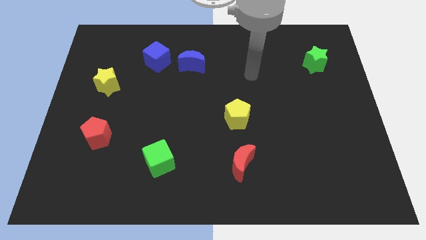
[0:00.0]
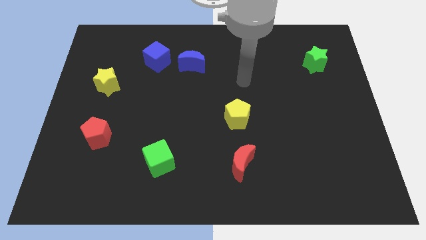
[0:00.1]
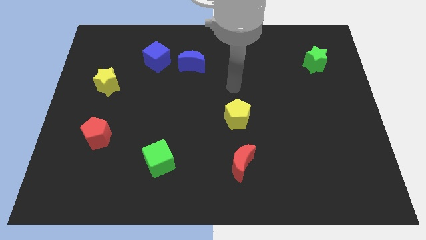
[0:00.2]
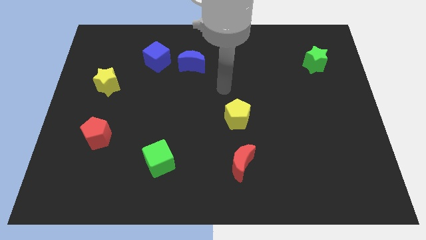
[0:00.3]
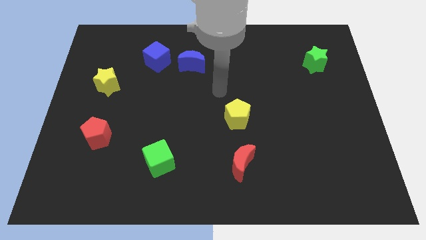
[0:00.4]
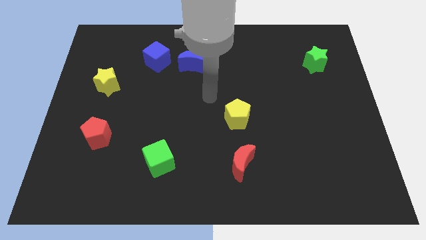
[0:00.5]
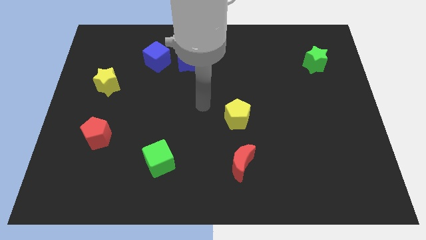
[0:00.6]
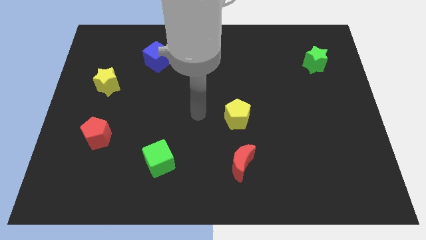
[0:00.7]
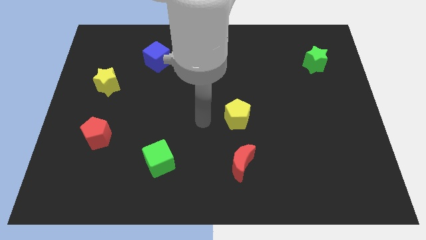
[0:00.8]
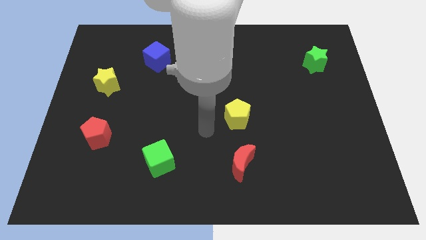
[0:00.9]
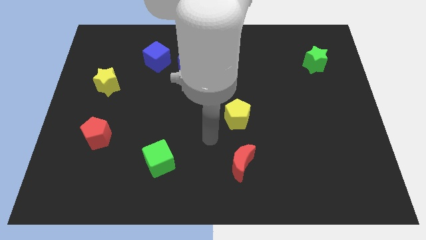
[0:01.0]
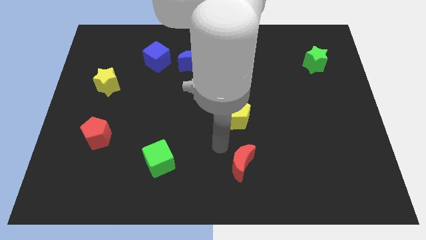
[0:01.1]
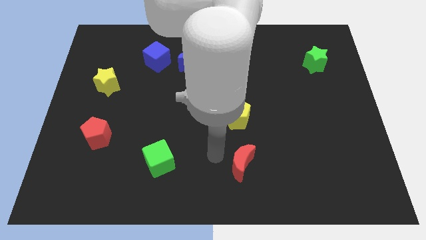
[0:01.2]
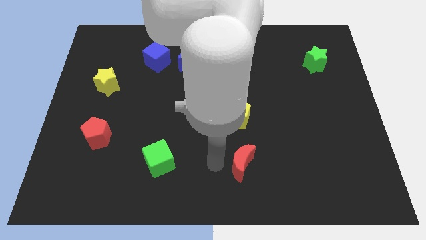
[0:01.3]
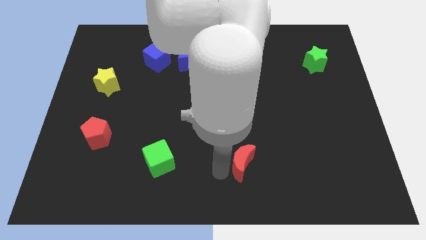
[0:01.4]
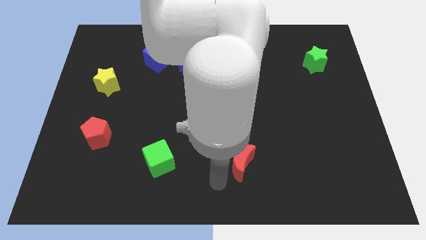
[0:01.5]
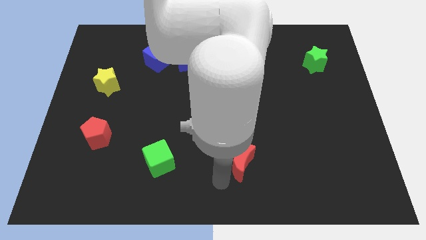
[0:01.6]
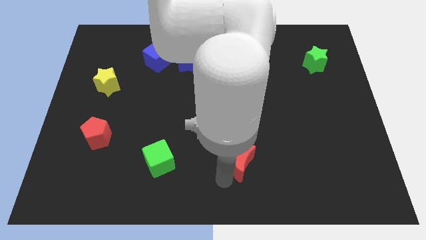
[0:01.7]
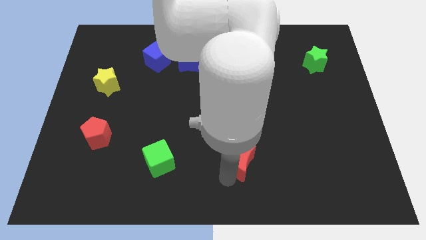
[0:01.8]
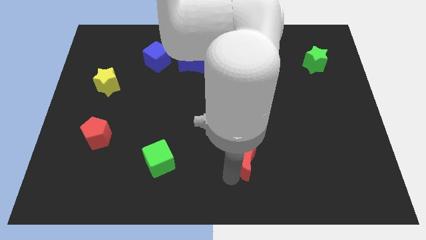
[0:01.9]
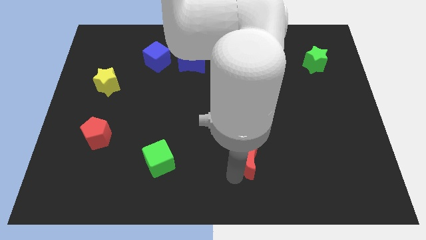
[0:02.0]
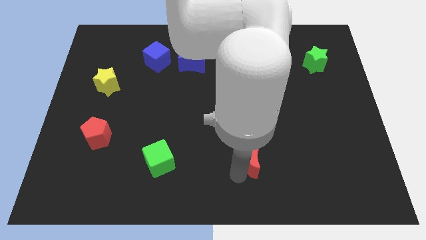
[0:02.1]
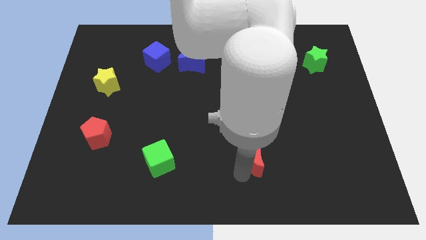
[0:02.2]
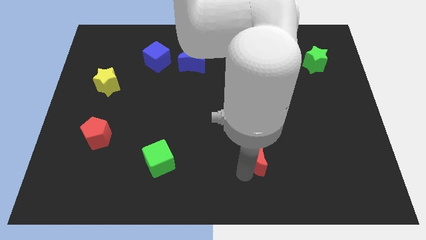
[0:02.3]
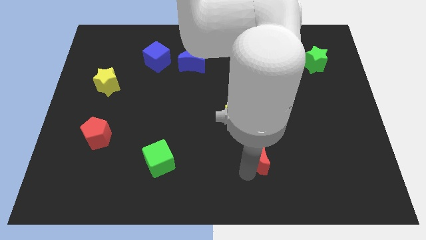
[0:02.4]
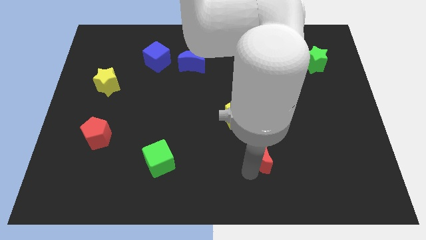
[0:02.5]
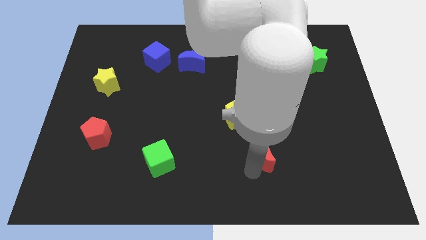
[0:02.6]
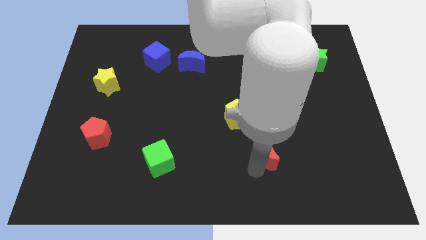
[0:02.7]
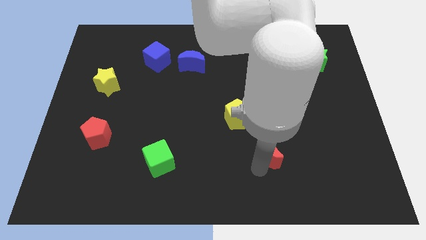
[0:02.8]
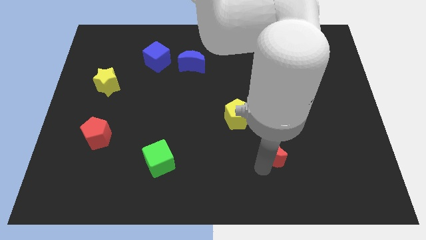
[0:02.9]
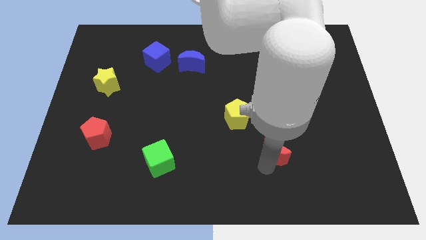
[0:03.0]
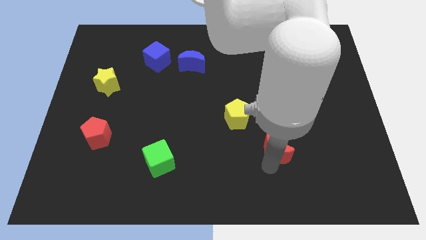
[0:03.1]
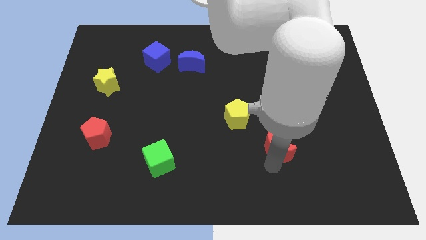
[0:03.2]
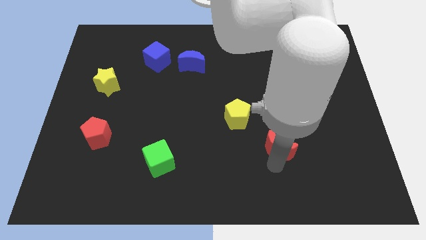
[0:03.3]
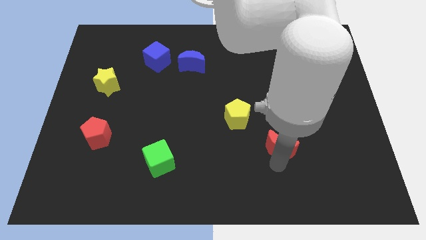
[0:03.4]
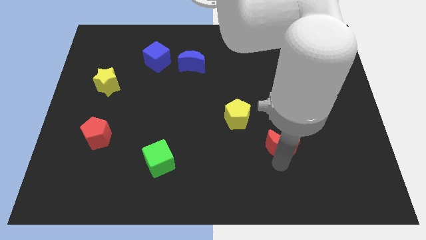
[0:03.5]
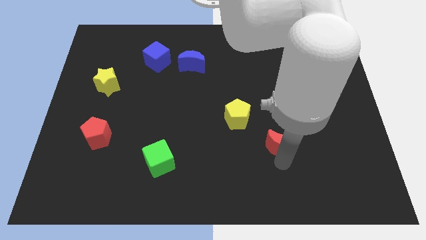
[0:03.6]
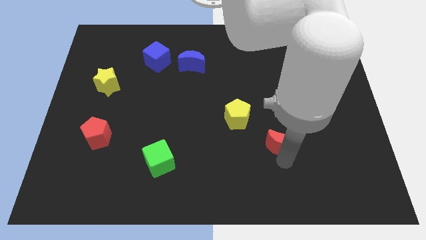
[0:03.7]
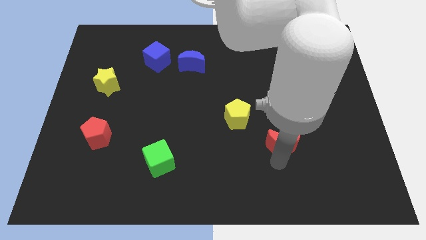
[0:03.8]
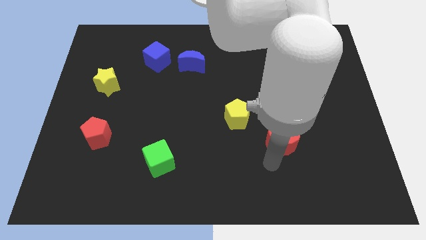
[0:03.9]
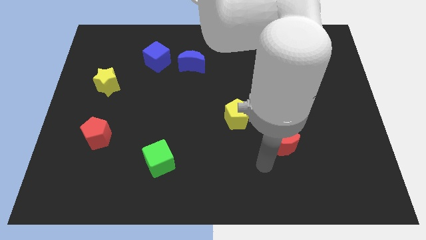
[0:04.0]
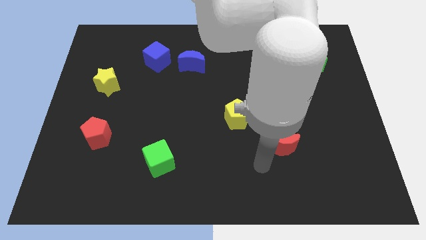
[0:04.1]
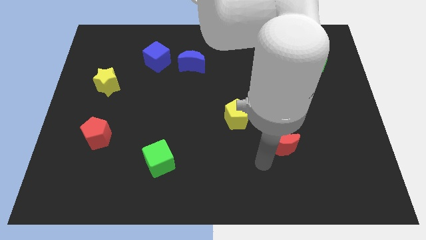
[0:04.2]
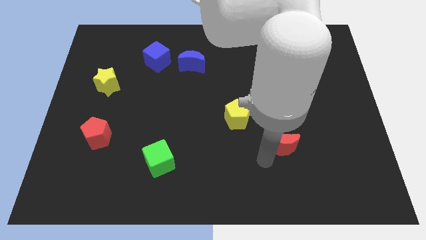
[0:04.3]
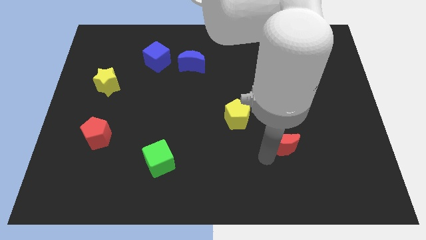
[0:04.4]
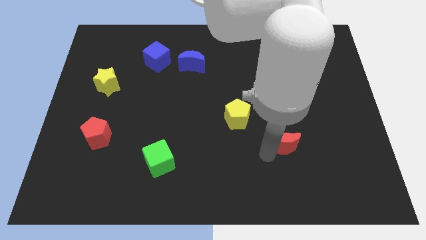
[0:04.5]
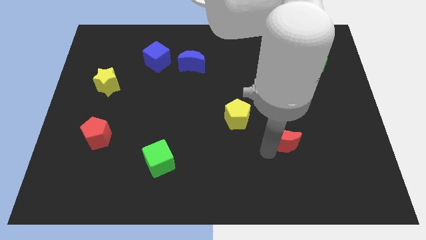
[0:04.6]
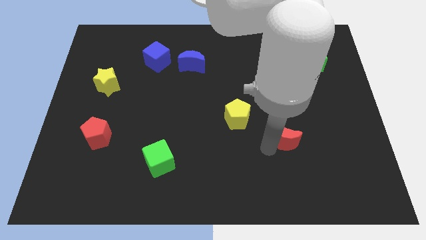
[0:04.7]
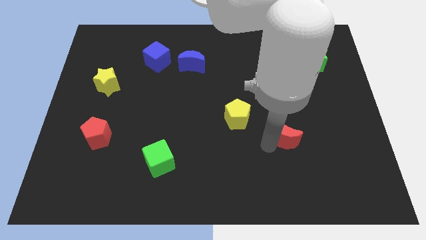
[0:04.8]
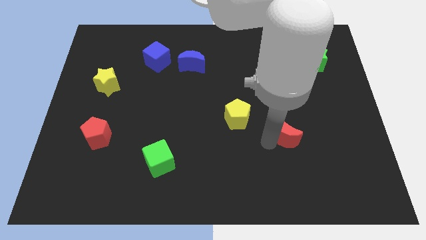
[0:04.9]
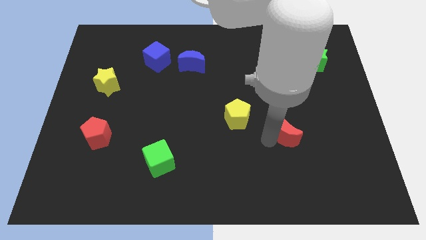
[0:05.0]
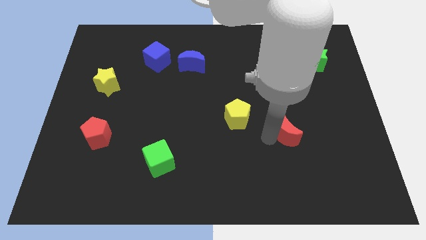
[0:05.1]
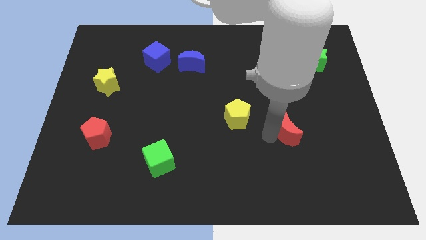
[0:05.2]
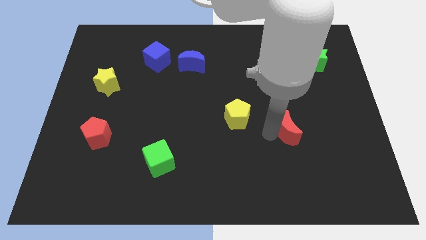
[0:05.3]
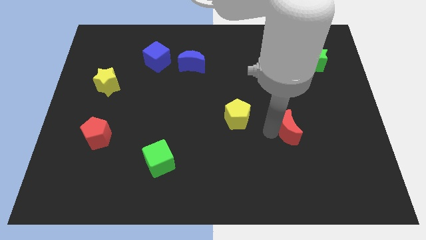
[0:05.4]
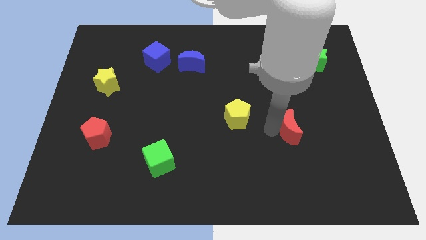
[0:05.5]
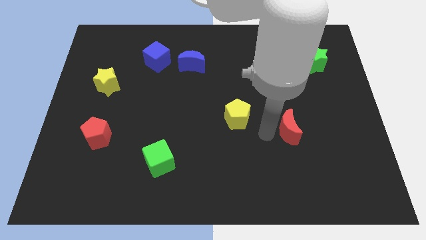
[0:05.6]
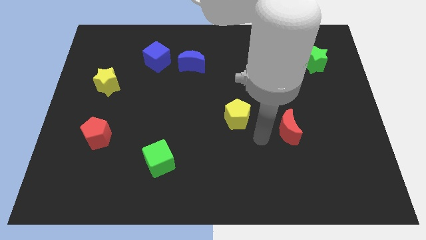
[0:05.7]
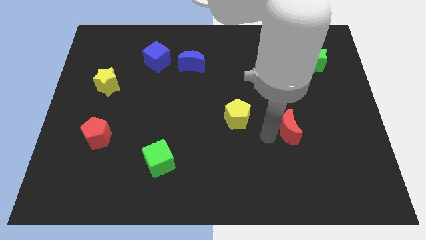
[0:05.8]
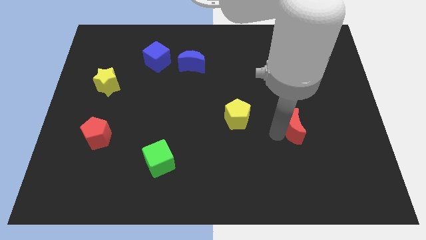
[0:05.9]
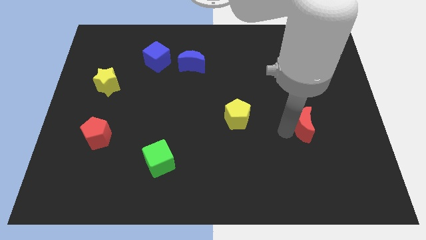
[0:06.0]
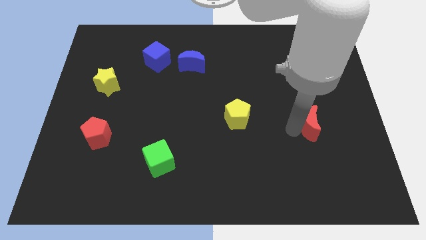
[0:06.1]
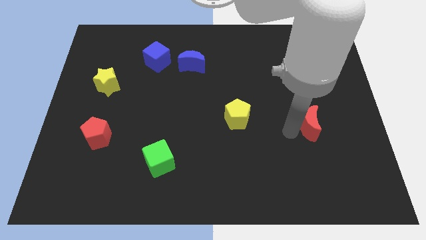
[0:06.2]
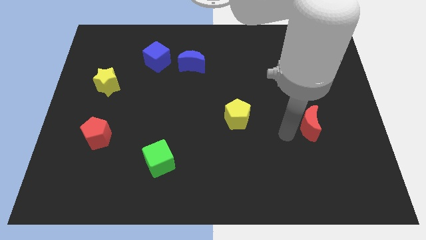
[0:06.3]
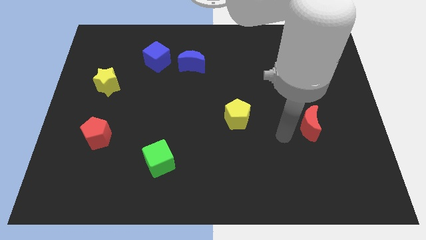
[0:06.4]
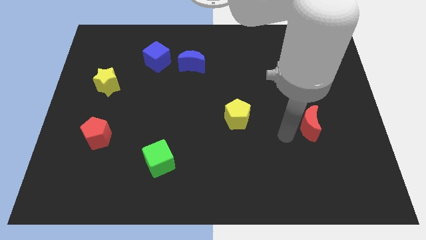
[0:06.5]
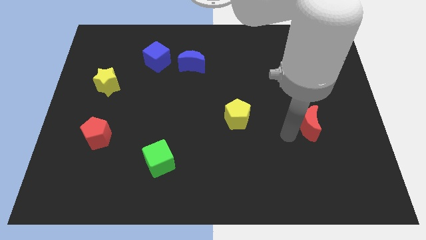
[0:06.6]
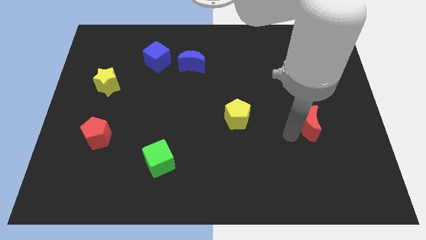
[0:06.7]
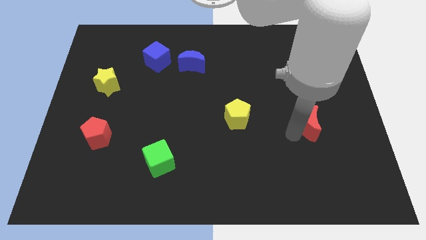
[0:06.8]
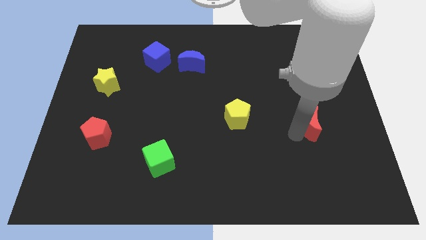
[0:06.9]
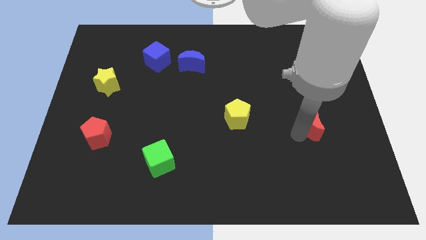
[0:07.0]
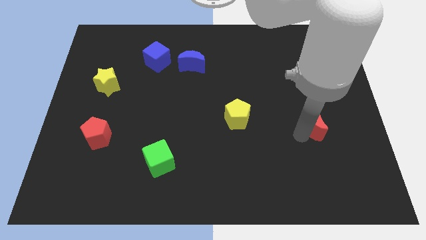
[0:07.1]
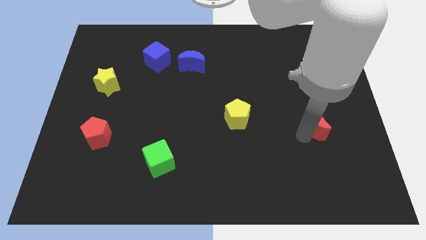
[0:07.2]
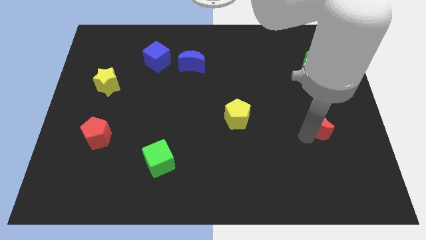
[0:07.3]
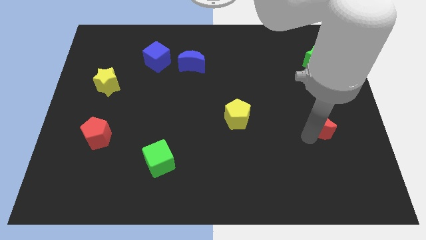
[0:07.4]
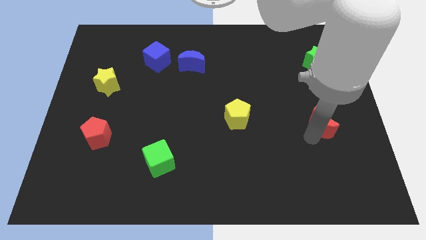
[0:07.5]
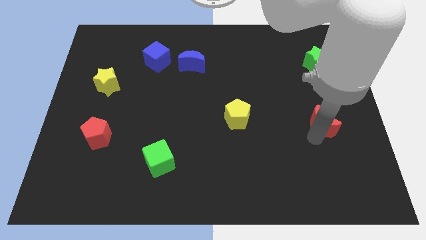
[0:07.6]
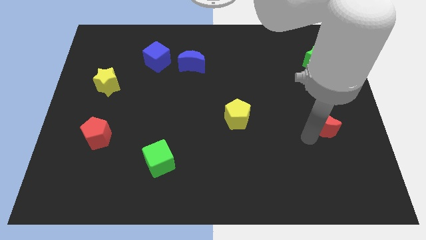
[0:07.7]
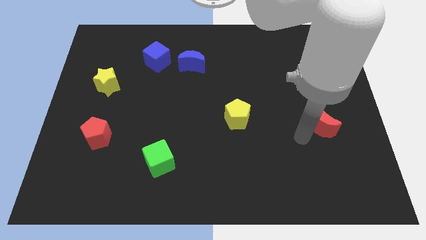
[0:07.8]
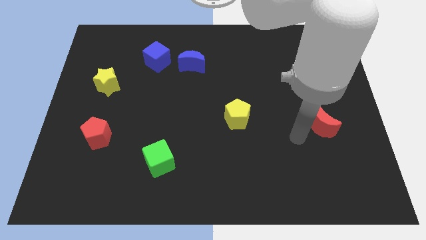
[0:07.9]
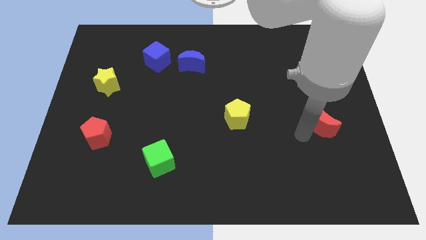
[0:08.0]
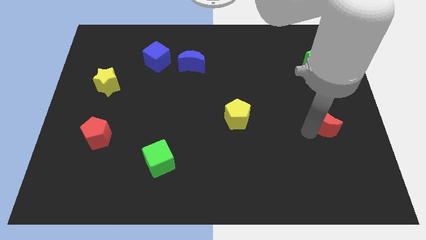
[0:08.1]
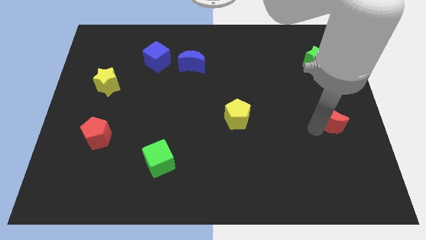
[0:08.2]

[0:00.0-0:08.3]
move the red moon to the right side of the board

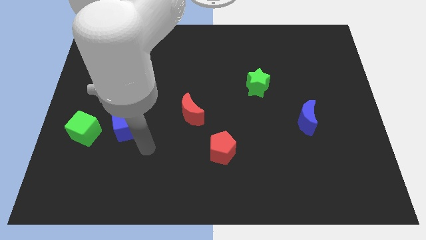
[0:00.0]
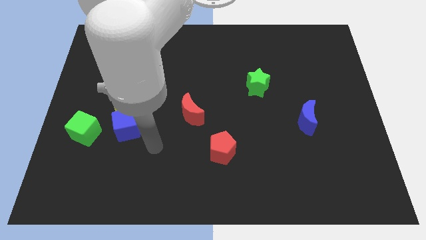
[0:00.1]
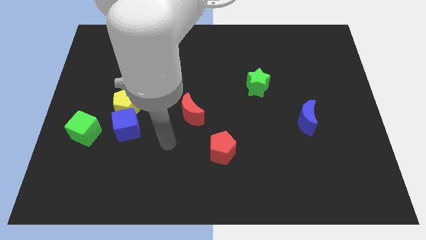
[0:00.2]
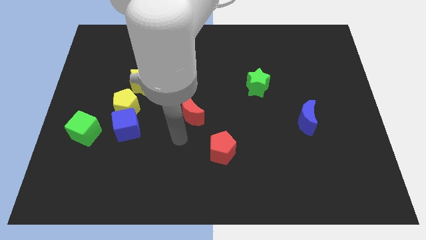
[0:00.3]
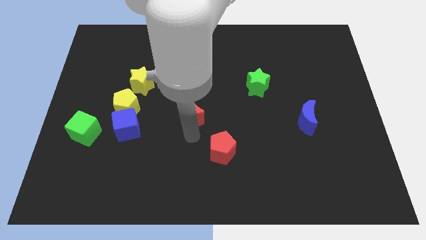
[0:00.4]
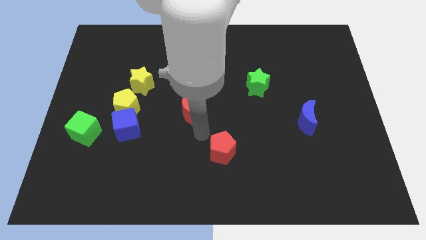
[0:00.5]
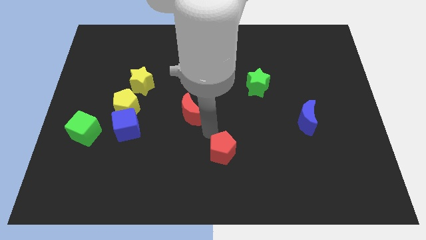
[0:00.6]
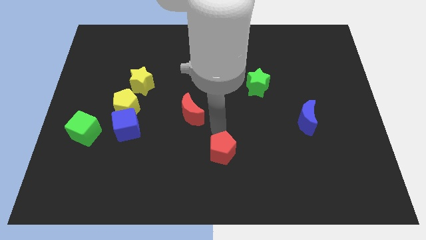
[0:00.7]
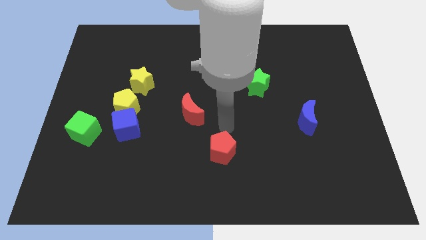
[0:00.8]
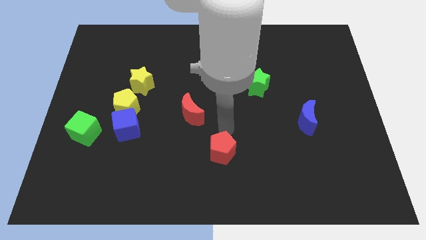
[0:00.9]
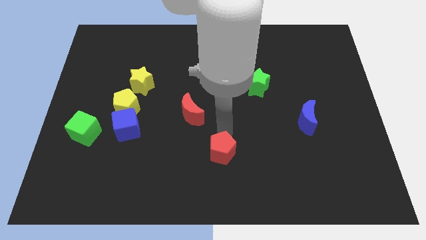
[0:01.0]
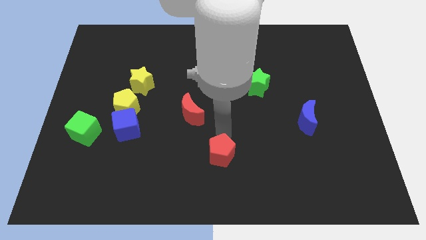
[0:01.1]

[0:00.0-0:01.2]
put the red pentagon to the bottom
